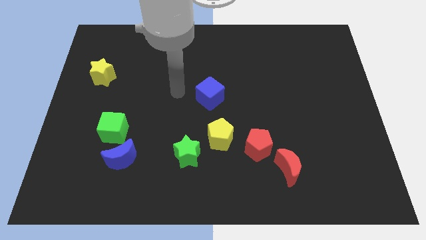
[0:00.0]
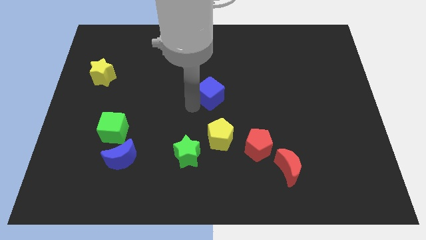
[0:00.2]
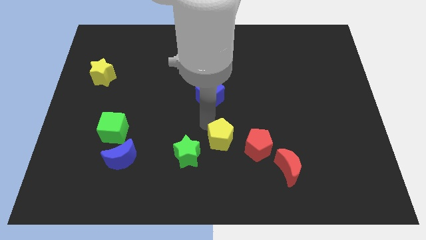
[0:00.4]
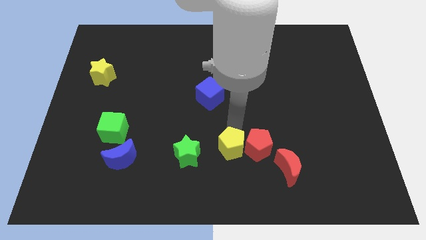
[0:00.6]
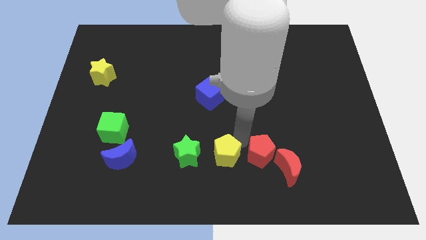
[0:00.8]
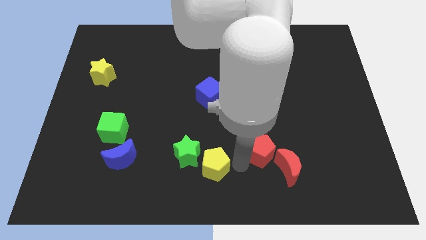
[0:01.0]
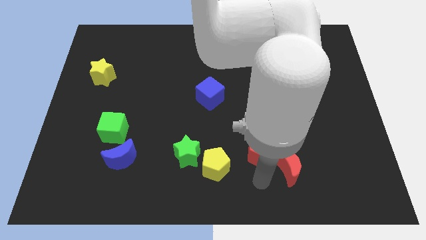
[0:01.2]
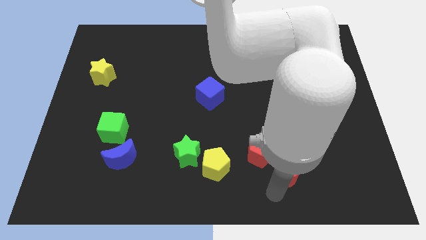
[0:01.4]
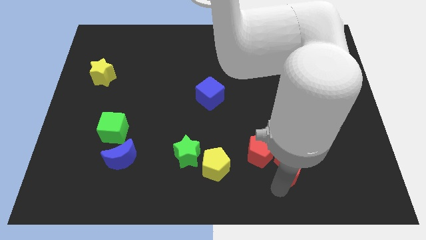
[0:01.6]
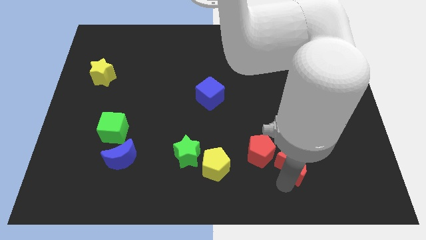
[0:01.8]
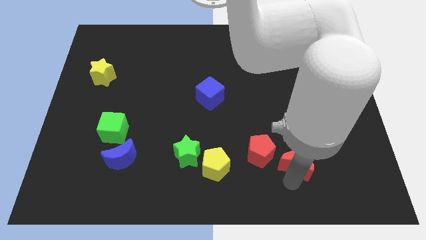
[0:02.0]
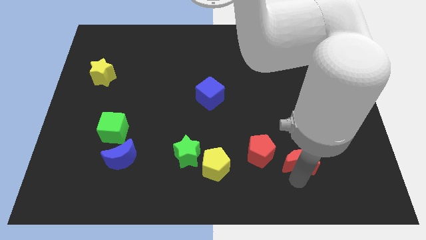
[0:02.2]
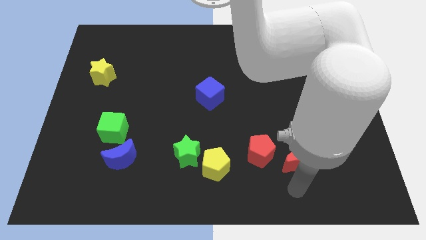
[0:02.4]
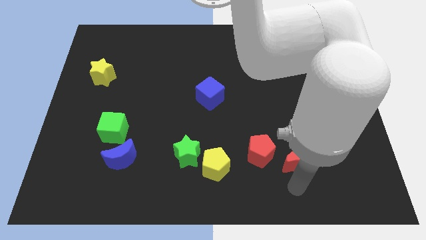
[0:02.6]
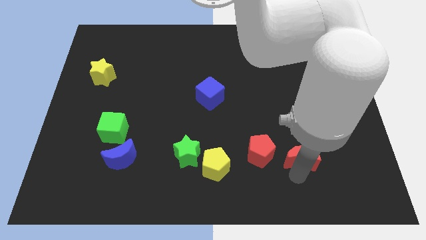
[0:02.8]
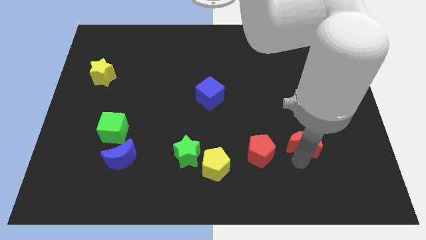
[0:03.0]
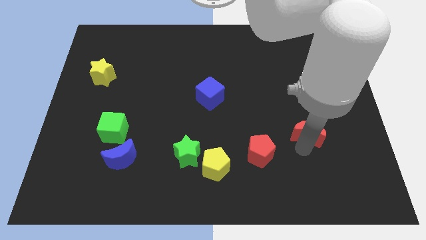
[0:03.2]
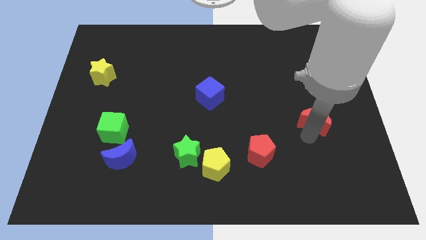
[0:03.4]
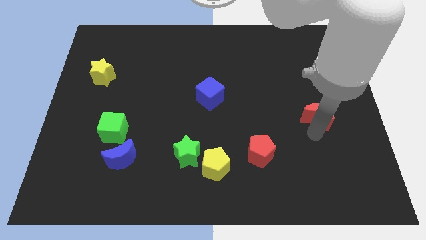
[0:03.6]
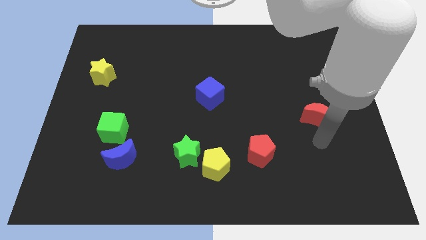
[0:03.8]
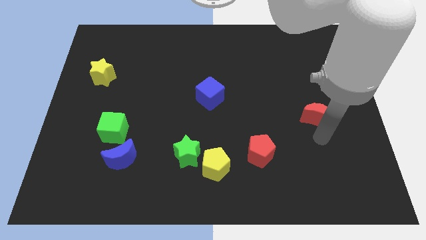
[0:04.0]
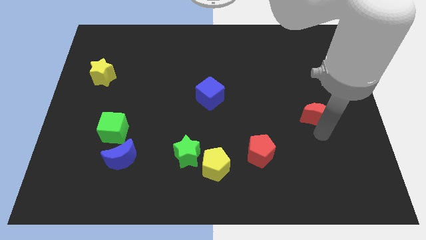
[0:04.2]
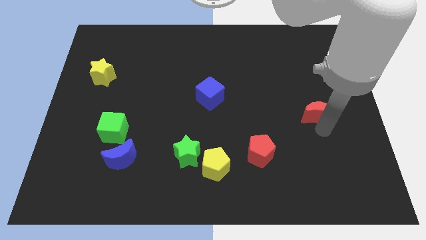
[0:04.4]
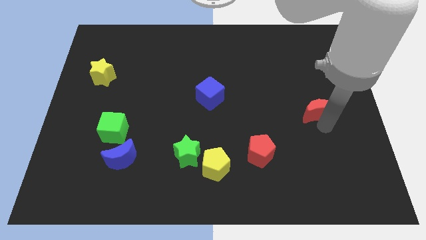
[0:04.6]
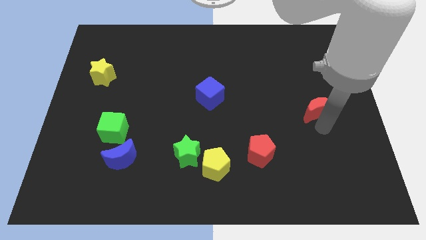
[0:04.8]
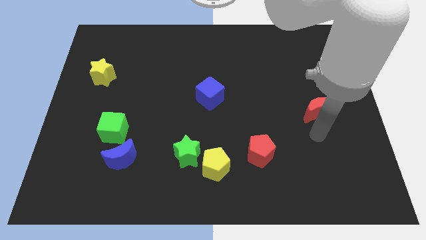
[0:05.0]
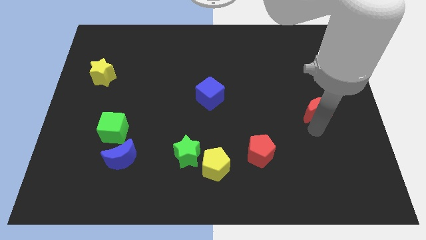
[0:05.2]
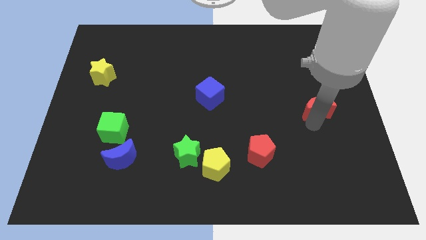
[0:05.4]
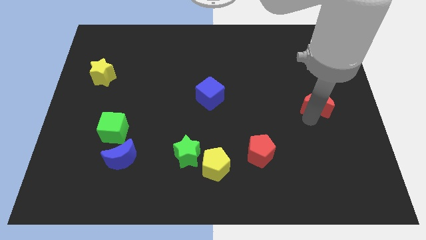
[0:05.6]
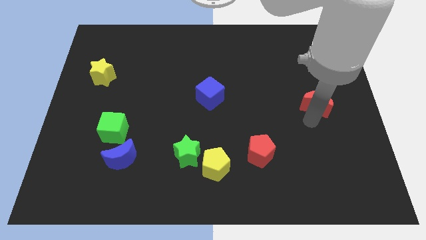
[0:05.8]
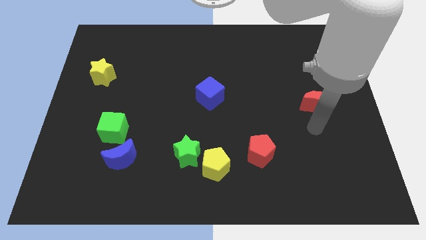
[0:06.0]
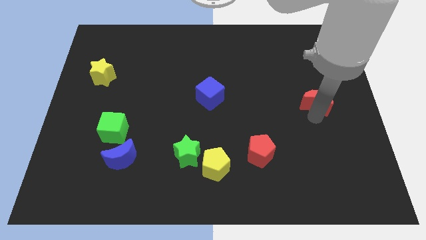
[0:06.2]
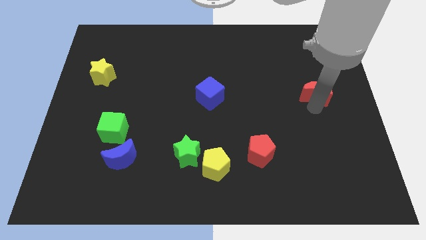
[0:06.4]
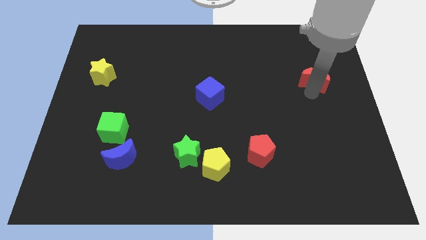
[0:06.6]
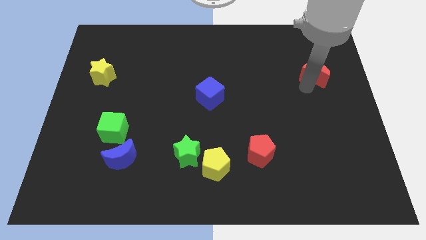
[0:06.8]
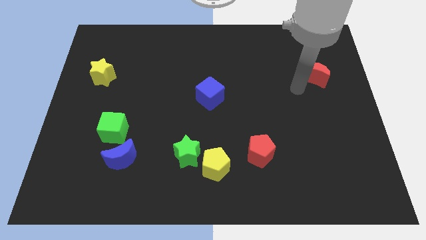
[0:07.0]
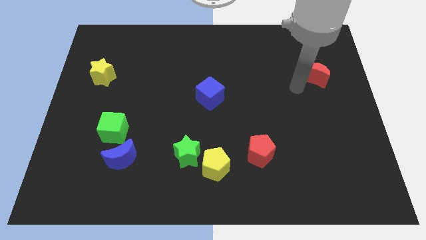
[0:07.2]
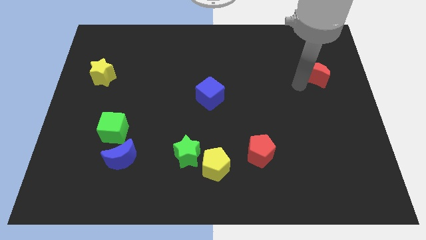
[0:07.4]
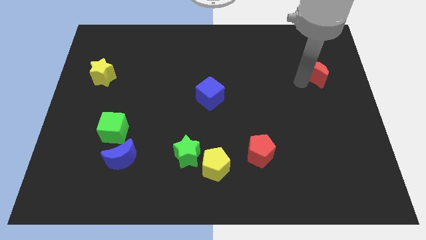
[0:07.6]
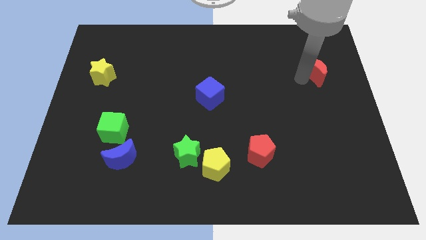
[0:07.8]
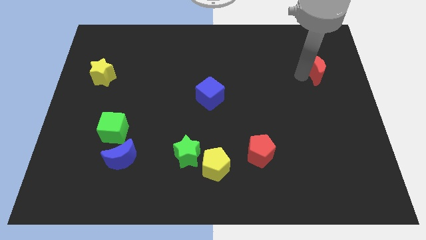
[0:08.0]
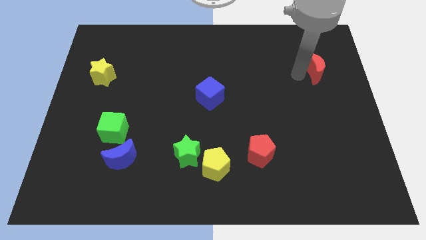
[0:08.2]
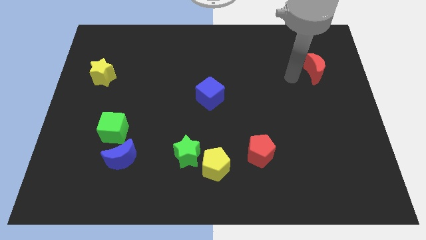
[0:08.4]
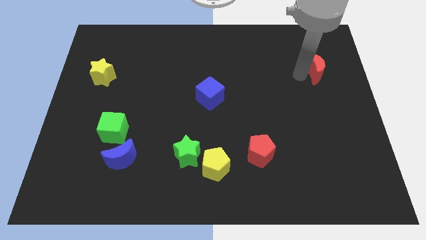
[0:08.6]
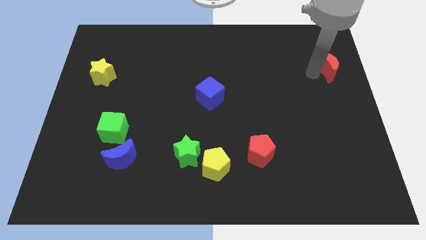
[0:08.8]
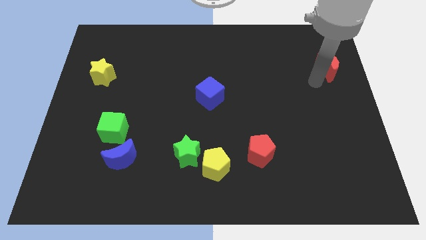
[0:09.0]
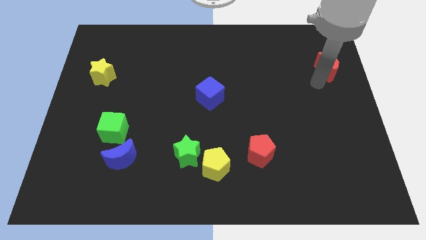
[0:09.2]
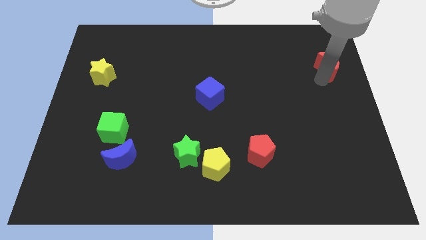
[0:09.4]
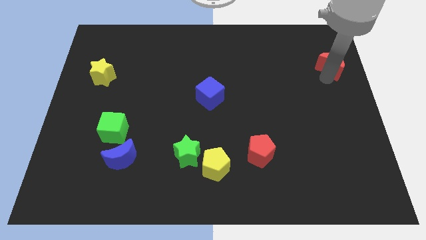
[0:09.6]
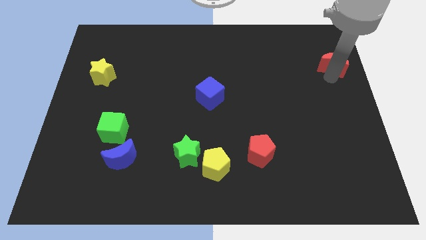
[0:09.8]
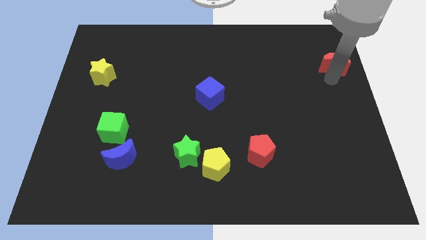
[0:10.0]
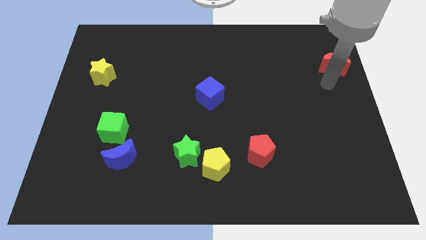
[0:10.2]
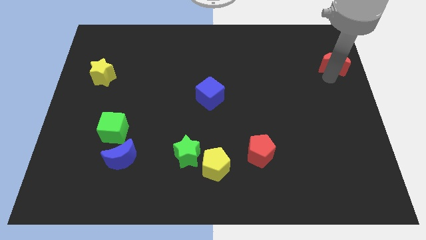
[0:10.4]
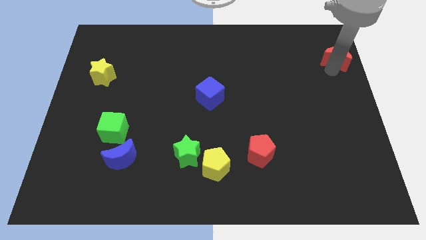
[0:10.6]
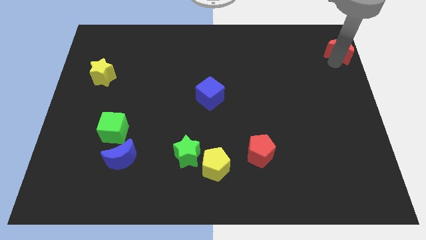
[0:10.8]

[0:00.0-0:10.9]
push the red moon to the top right of the board

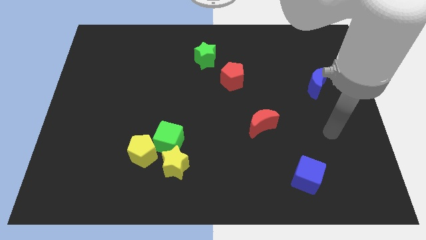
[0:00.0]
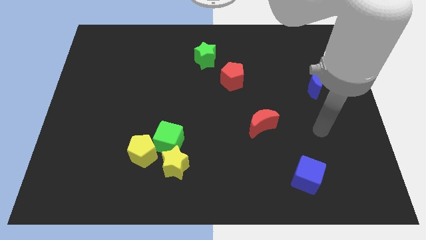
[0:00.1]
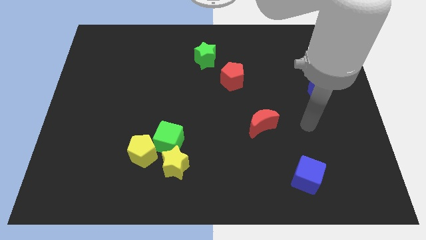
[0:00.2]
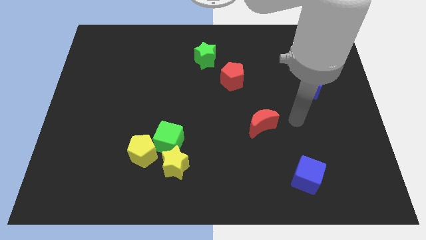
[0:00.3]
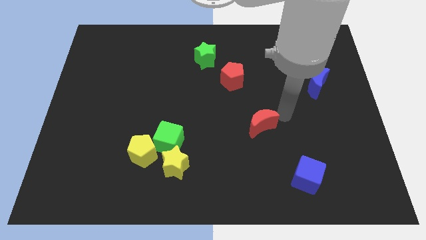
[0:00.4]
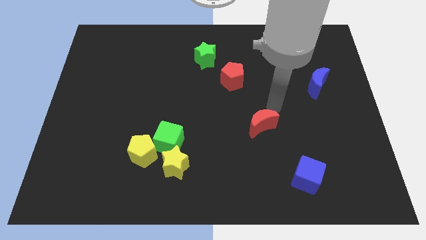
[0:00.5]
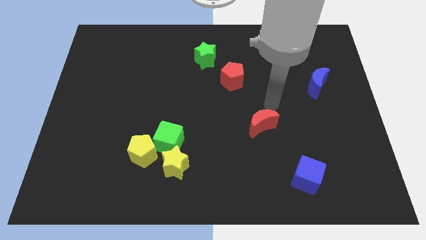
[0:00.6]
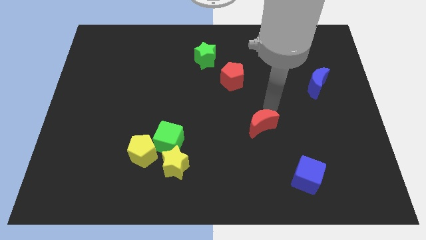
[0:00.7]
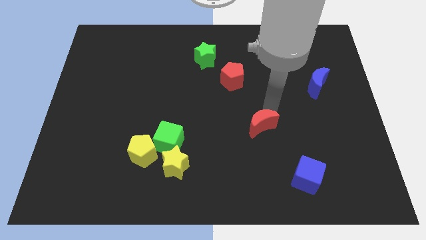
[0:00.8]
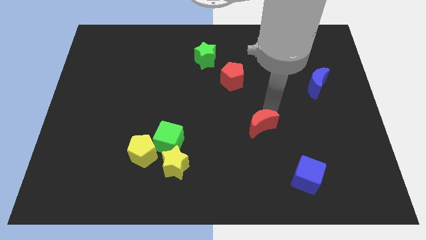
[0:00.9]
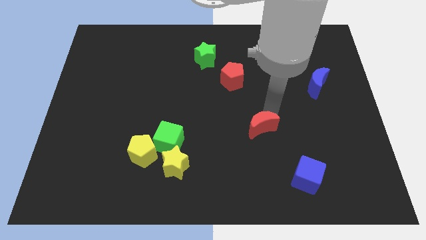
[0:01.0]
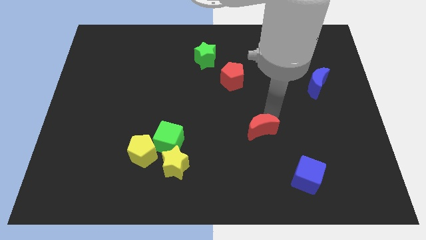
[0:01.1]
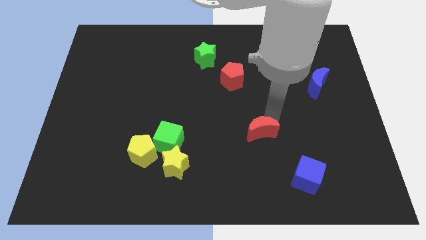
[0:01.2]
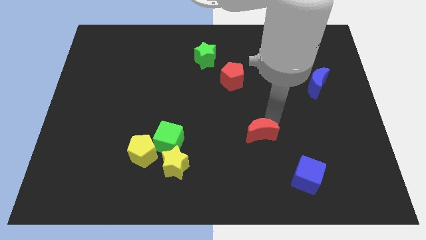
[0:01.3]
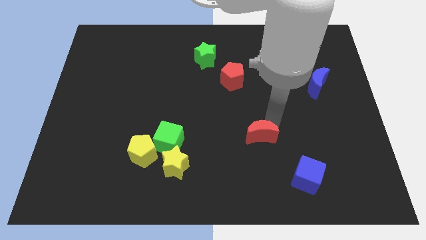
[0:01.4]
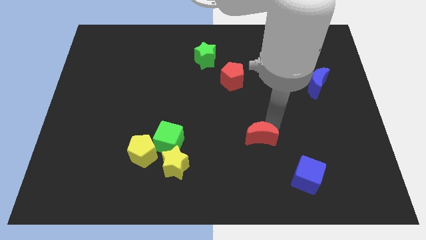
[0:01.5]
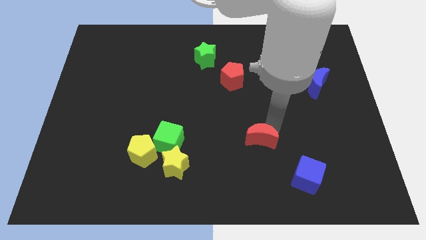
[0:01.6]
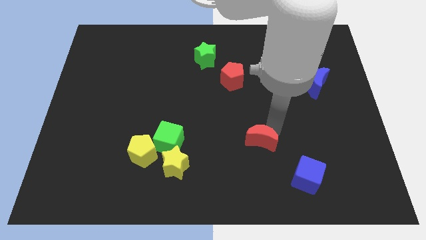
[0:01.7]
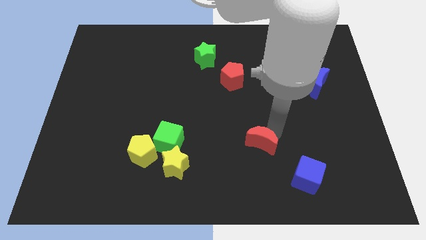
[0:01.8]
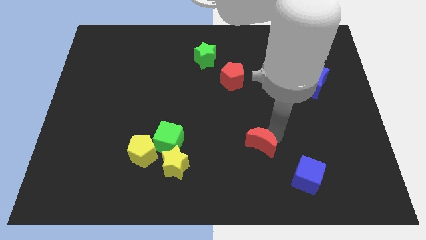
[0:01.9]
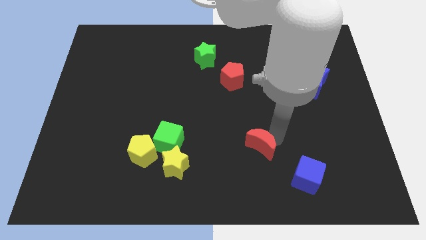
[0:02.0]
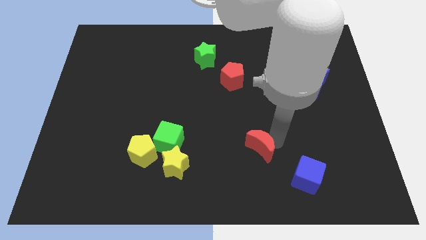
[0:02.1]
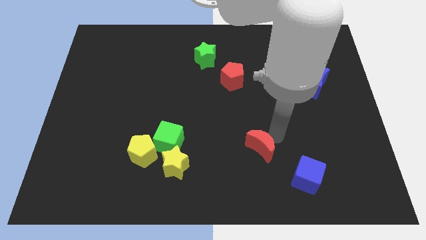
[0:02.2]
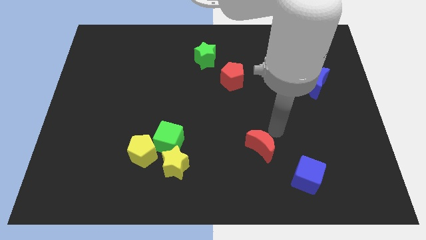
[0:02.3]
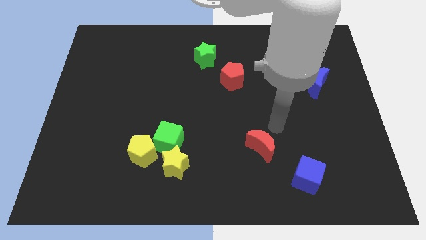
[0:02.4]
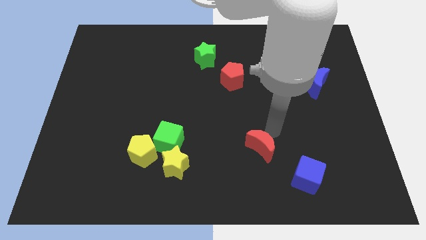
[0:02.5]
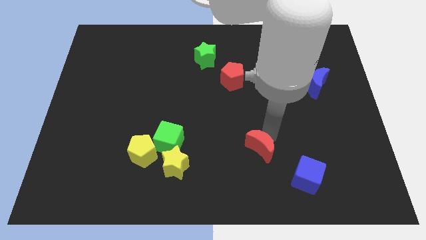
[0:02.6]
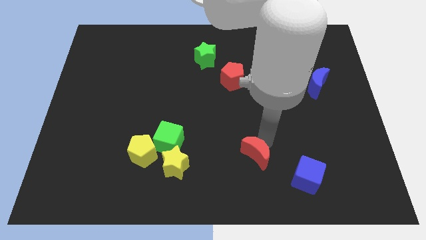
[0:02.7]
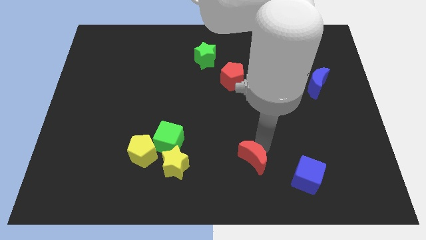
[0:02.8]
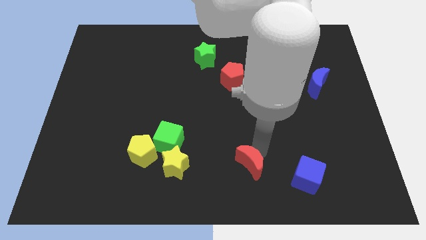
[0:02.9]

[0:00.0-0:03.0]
move the red moon to the bottom
